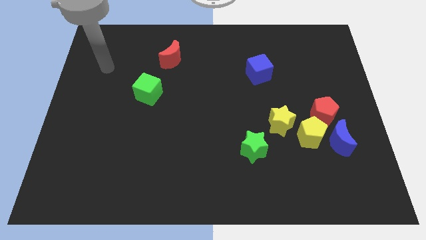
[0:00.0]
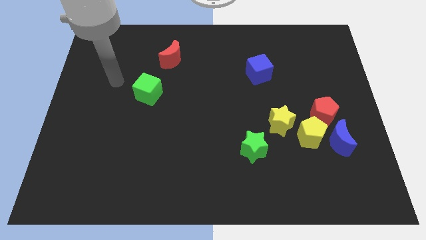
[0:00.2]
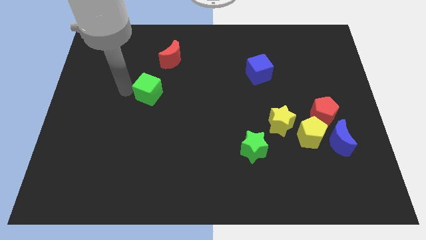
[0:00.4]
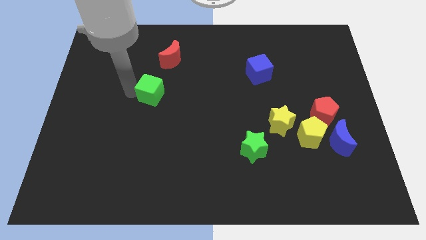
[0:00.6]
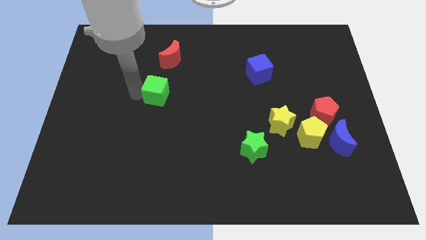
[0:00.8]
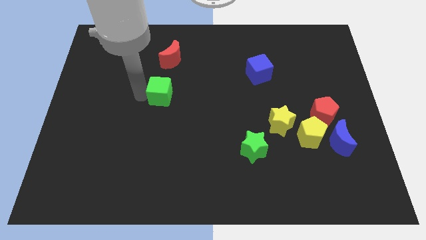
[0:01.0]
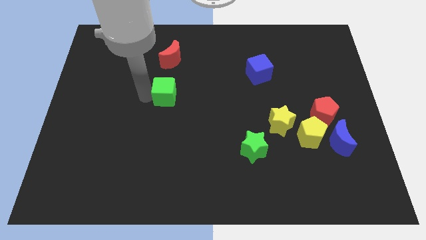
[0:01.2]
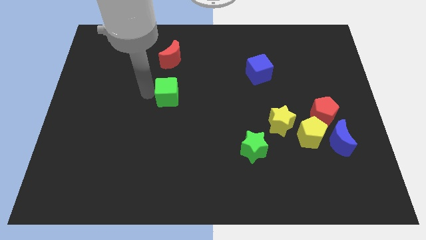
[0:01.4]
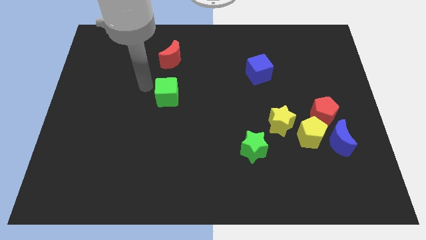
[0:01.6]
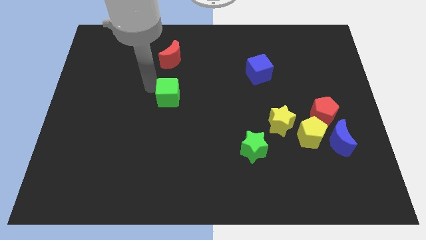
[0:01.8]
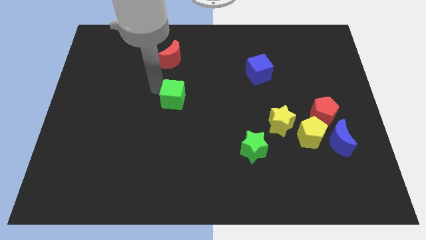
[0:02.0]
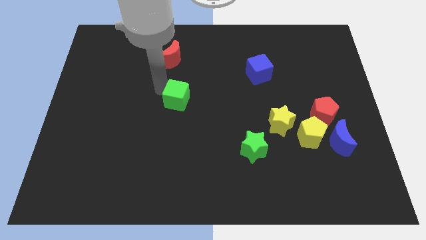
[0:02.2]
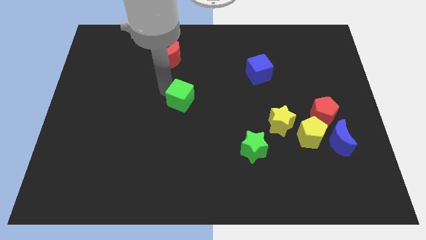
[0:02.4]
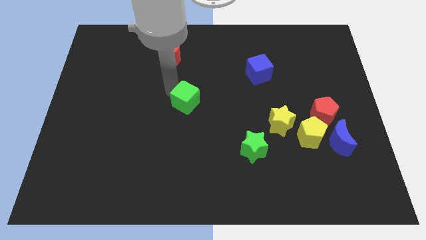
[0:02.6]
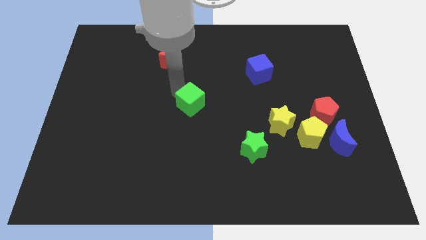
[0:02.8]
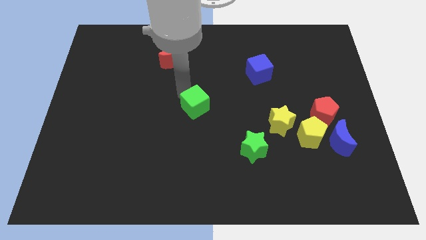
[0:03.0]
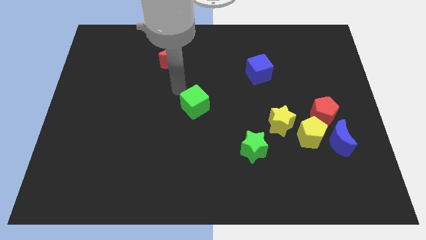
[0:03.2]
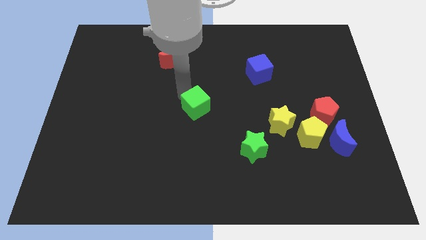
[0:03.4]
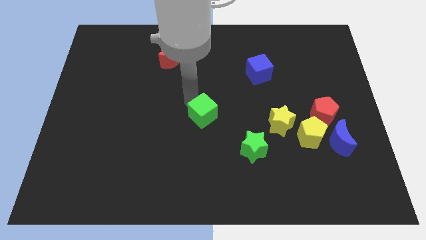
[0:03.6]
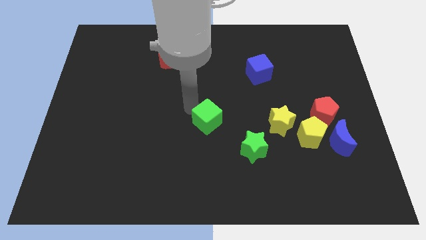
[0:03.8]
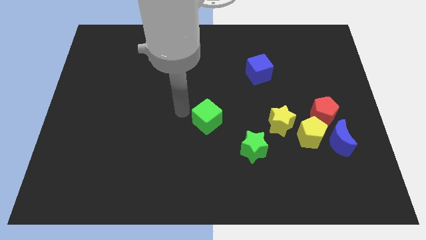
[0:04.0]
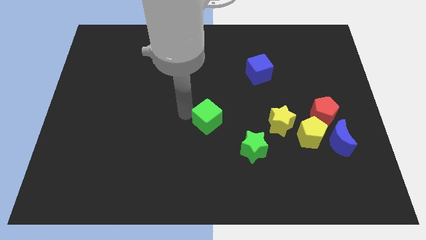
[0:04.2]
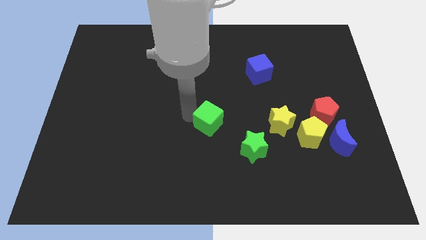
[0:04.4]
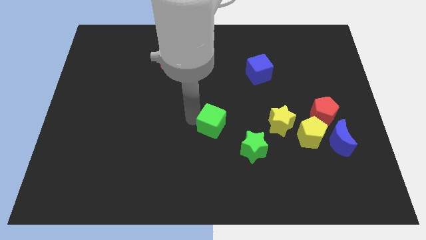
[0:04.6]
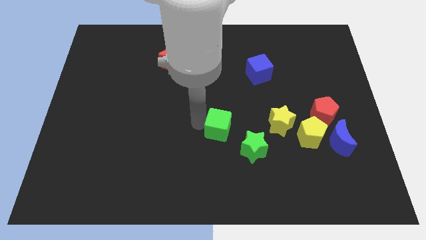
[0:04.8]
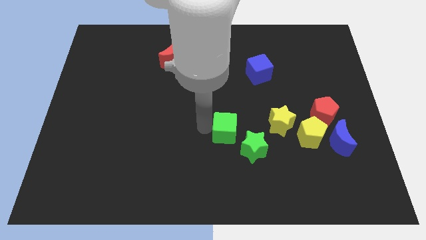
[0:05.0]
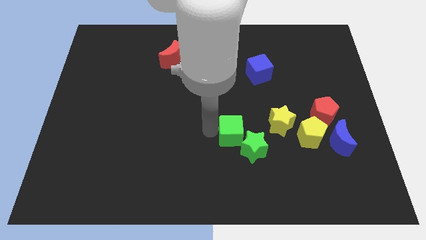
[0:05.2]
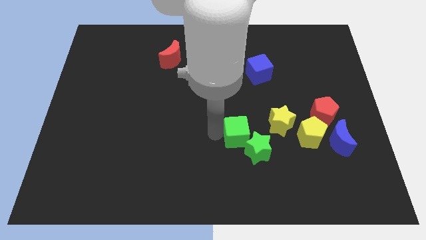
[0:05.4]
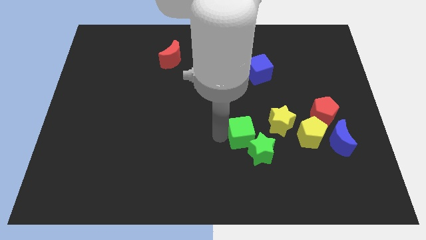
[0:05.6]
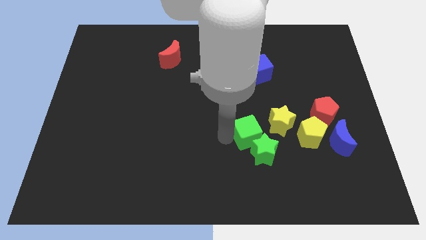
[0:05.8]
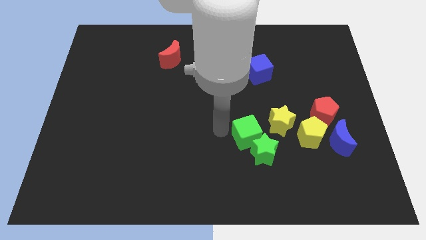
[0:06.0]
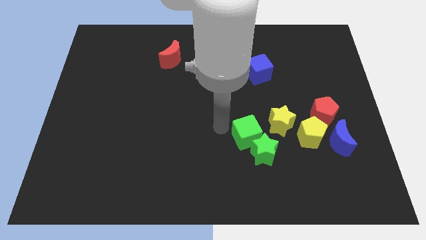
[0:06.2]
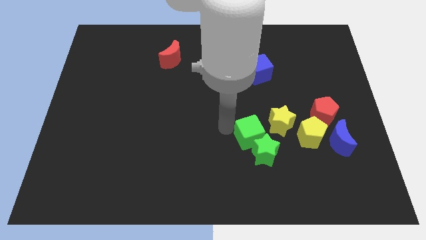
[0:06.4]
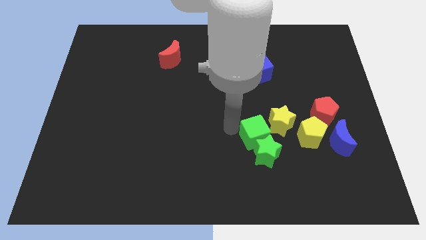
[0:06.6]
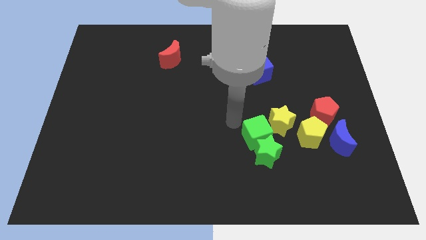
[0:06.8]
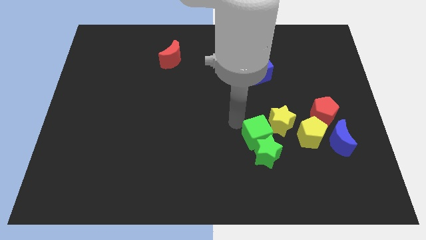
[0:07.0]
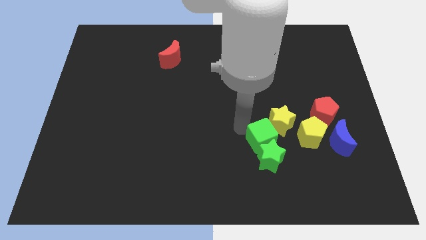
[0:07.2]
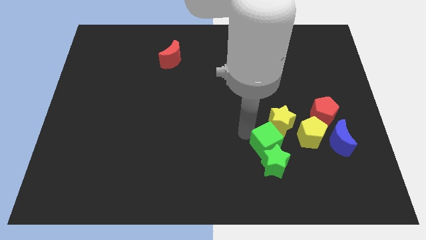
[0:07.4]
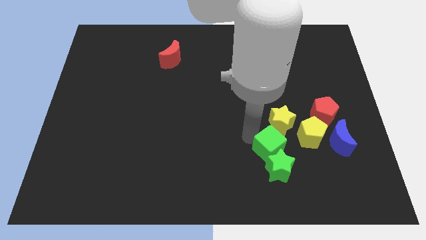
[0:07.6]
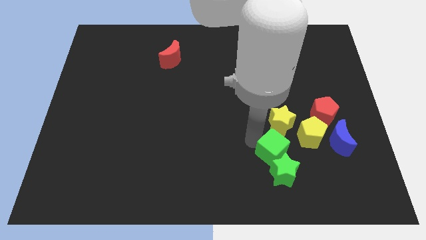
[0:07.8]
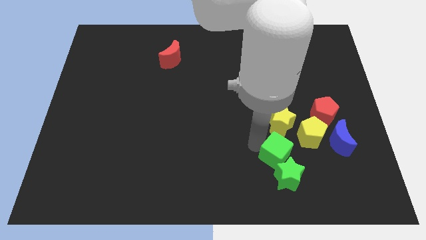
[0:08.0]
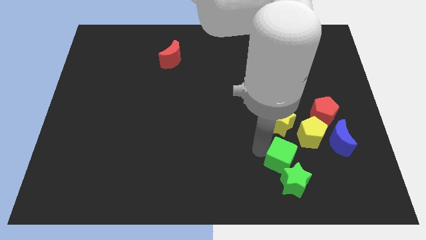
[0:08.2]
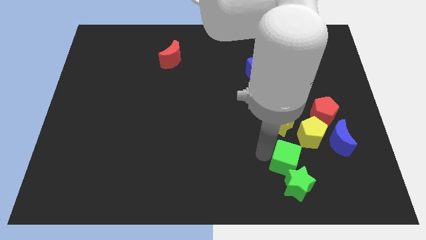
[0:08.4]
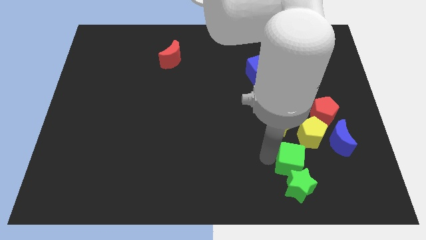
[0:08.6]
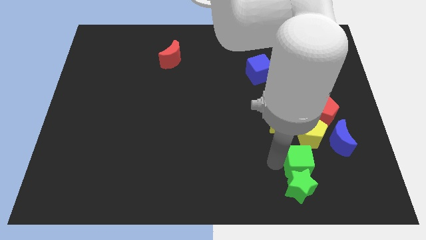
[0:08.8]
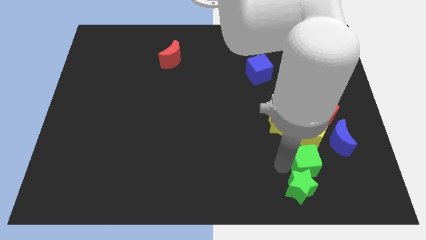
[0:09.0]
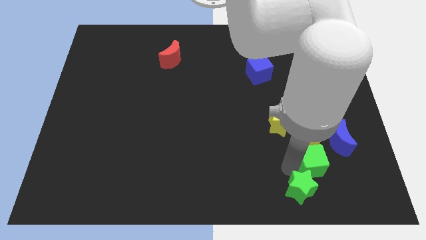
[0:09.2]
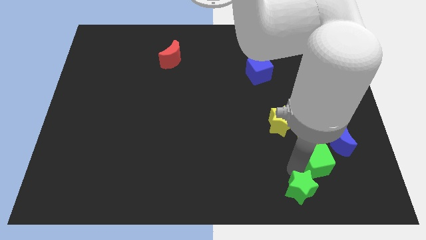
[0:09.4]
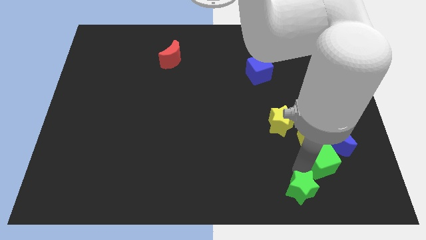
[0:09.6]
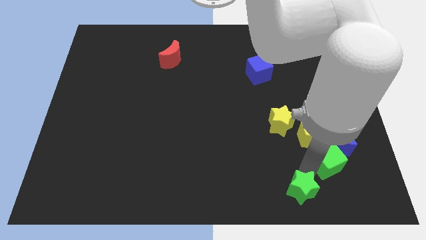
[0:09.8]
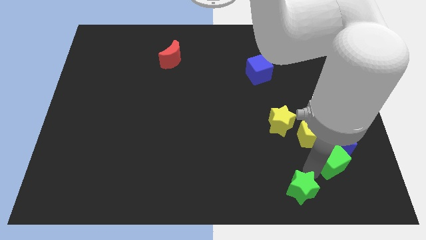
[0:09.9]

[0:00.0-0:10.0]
push the green cube towards the blue moon

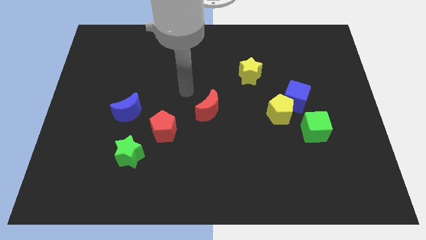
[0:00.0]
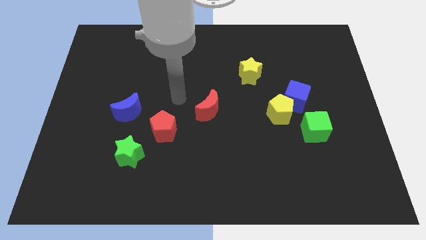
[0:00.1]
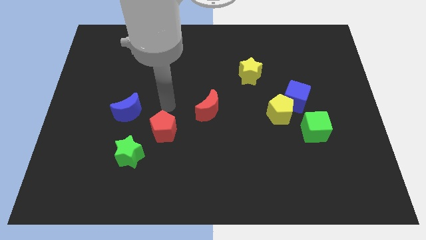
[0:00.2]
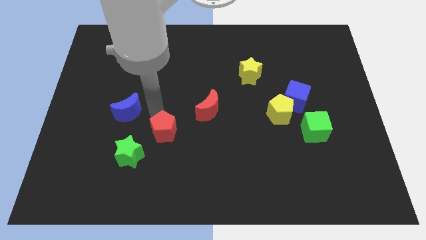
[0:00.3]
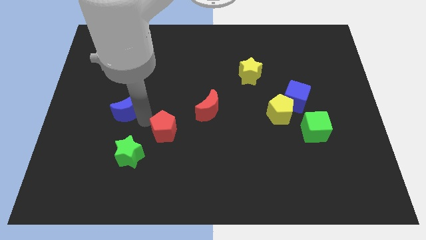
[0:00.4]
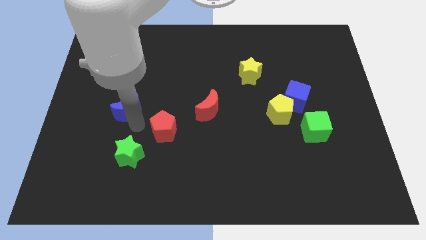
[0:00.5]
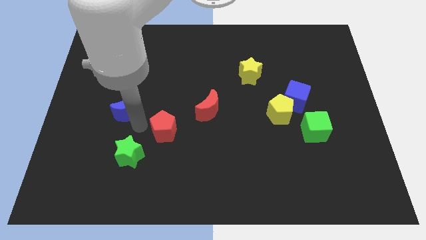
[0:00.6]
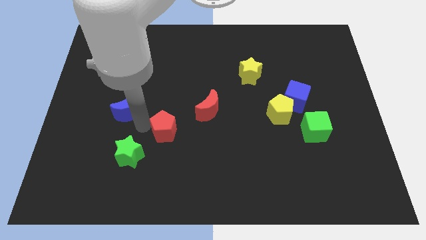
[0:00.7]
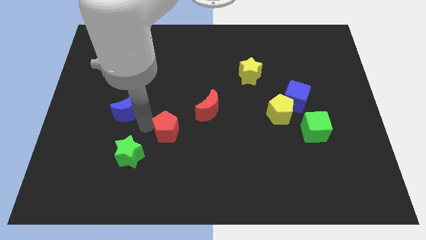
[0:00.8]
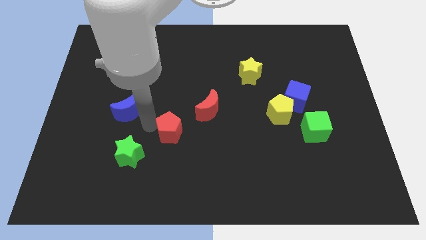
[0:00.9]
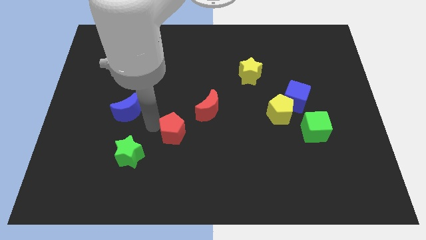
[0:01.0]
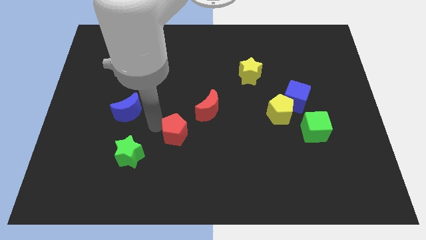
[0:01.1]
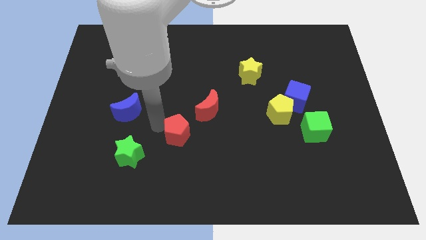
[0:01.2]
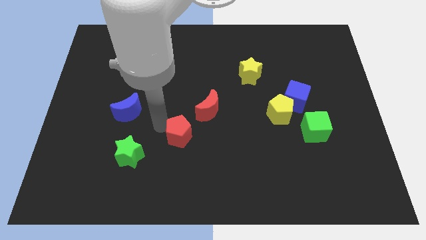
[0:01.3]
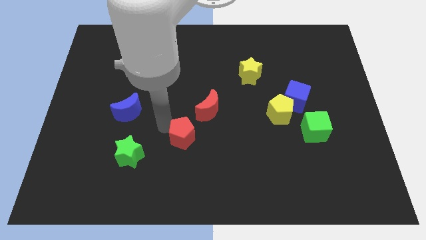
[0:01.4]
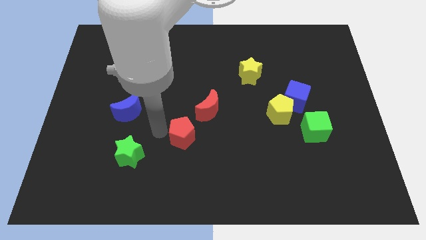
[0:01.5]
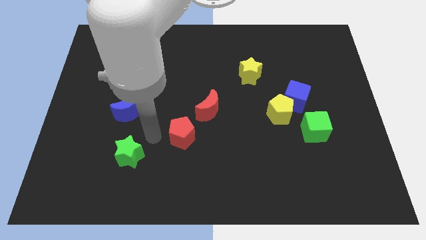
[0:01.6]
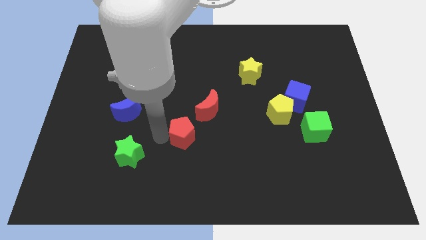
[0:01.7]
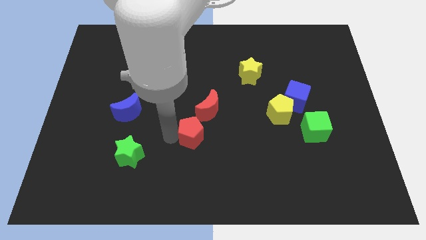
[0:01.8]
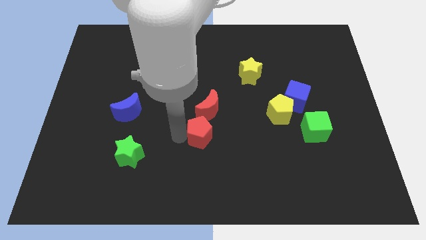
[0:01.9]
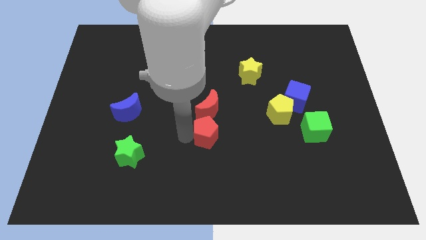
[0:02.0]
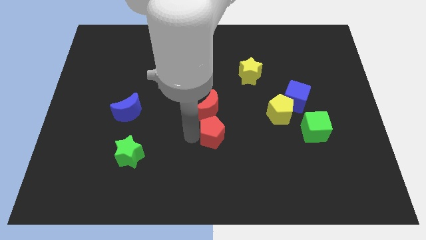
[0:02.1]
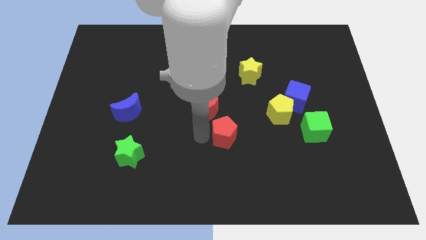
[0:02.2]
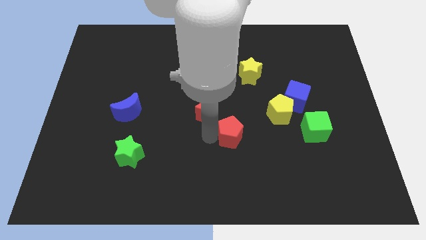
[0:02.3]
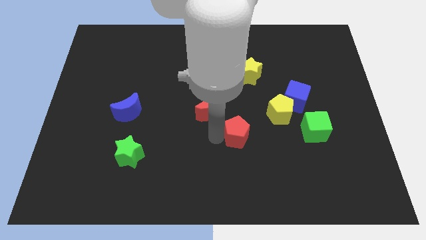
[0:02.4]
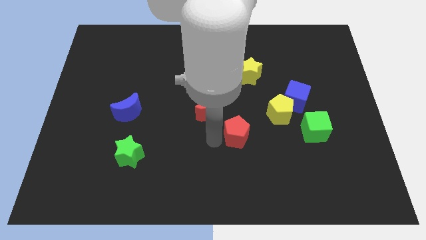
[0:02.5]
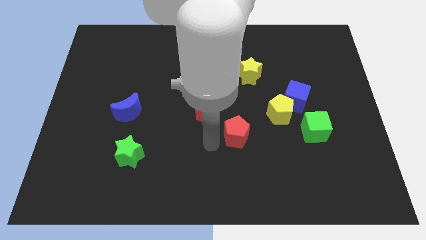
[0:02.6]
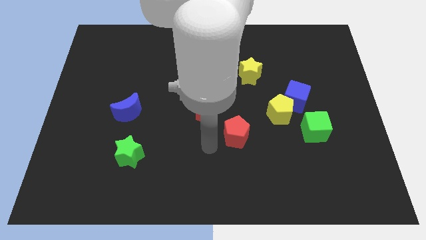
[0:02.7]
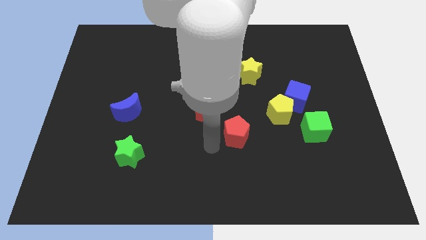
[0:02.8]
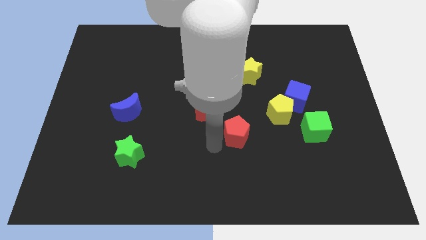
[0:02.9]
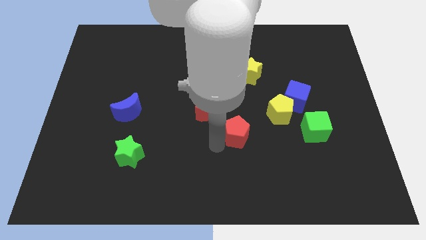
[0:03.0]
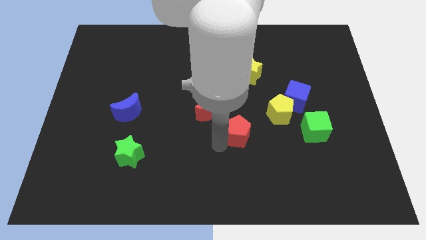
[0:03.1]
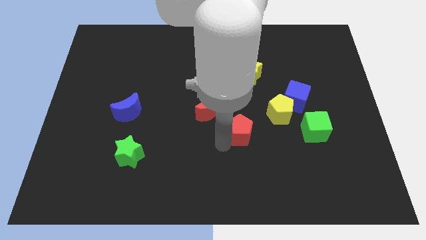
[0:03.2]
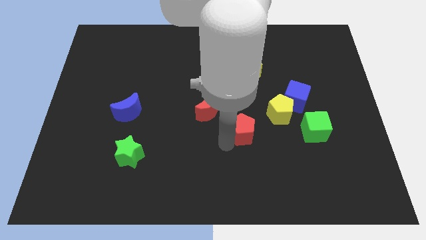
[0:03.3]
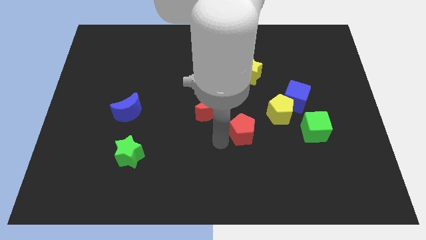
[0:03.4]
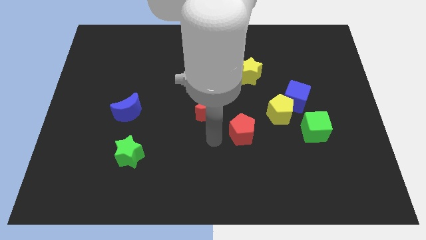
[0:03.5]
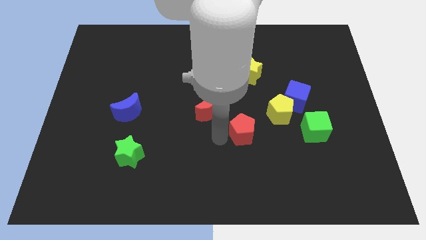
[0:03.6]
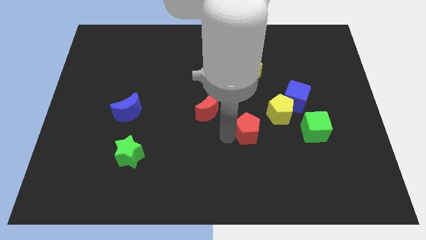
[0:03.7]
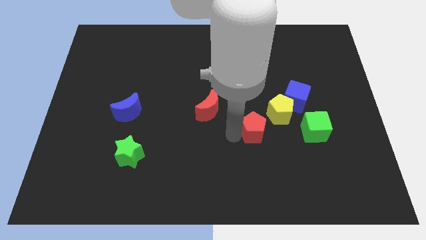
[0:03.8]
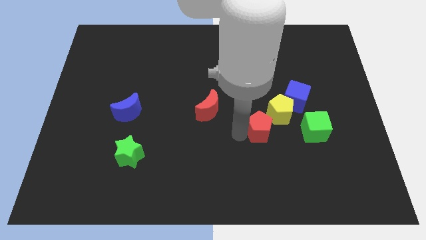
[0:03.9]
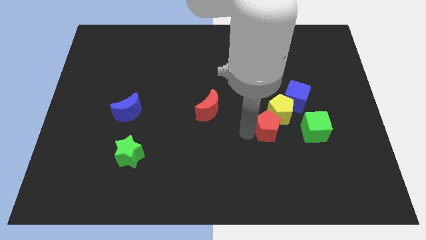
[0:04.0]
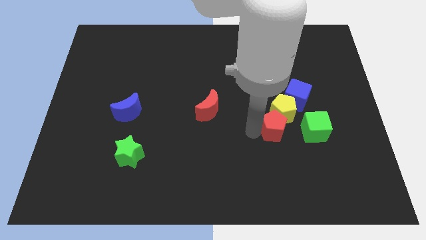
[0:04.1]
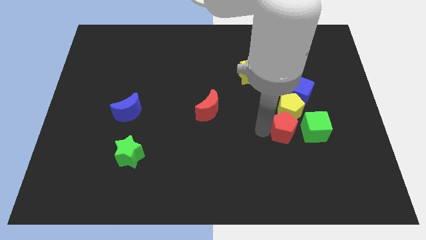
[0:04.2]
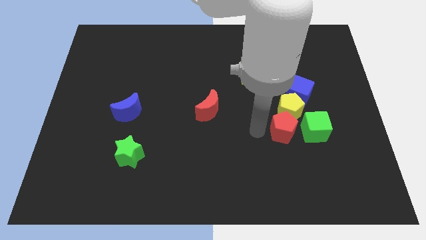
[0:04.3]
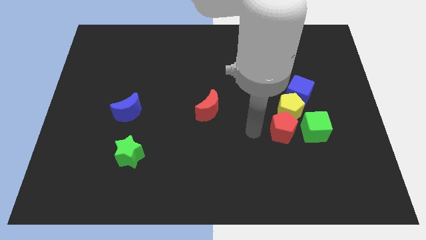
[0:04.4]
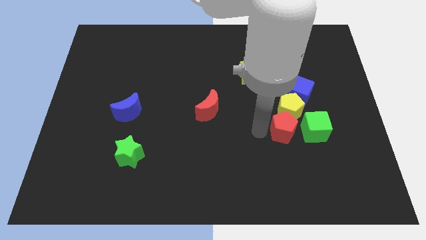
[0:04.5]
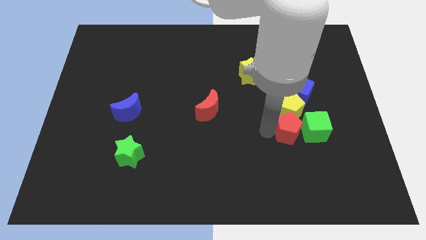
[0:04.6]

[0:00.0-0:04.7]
slide the red pentagon towards the green cube
